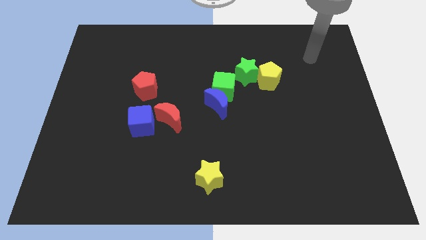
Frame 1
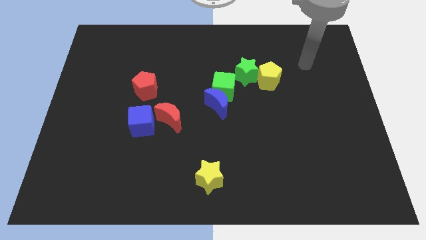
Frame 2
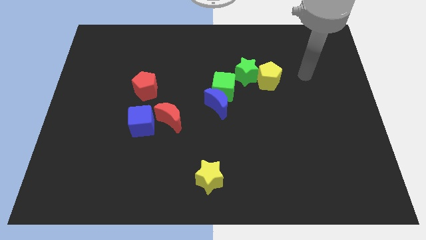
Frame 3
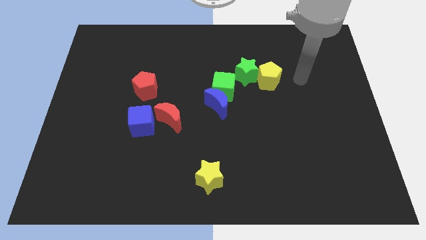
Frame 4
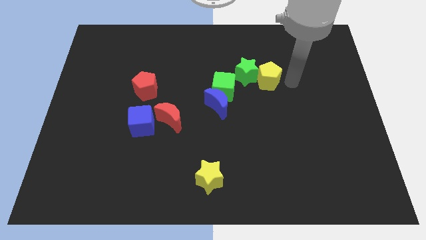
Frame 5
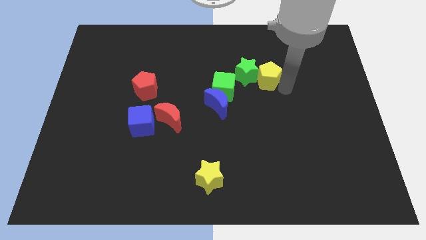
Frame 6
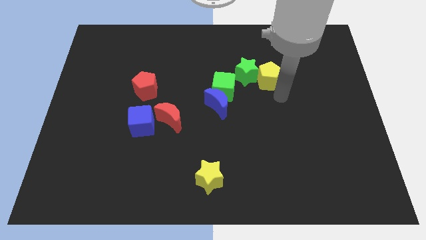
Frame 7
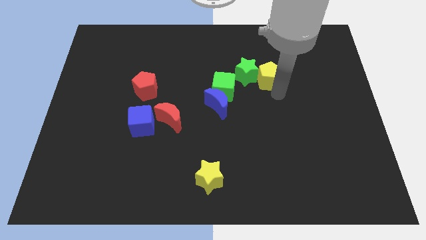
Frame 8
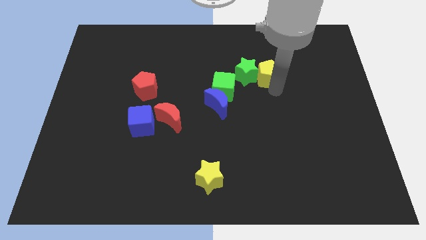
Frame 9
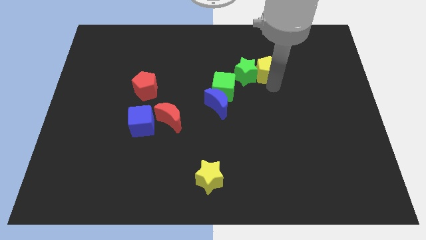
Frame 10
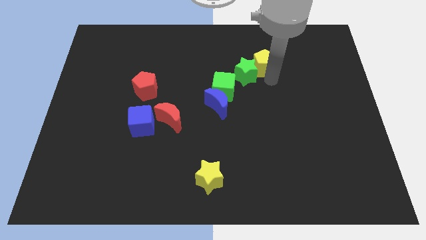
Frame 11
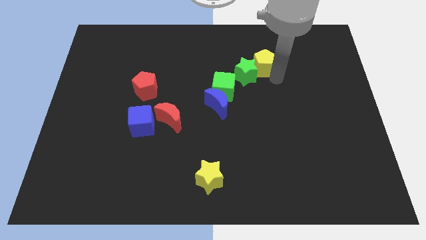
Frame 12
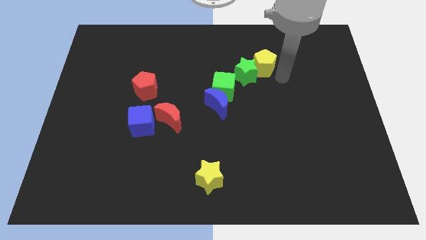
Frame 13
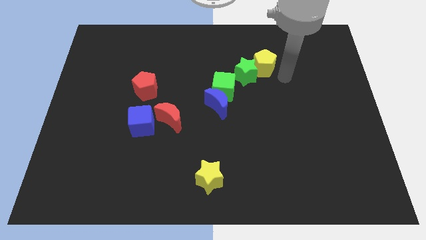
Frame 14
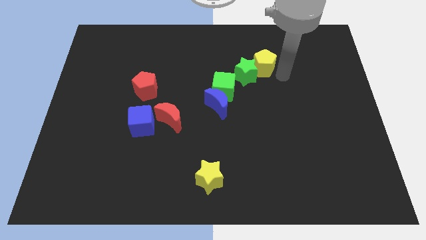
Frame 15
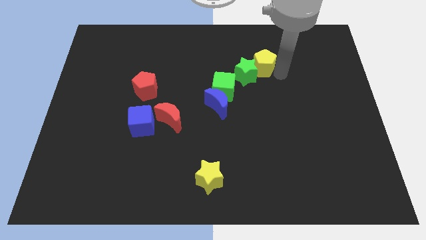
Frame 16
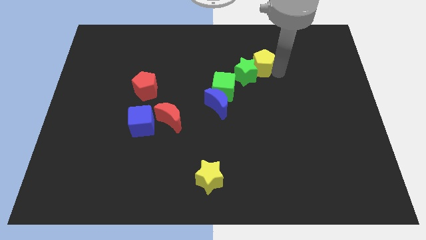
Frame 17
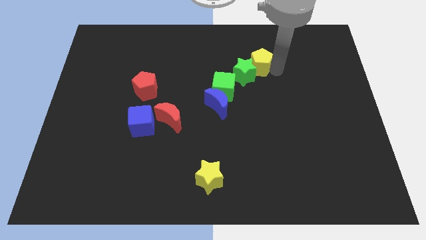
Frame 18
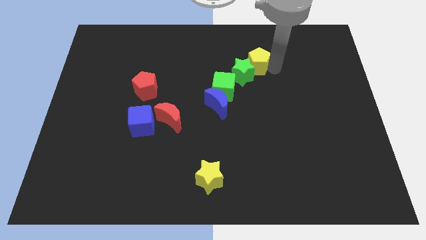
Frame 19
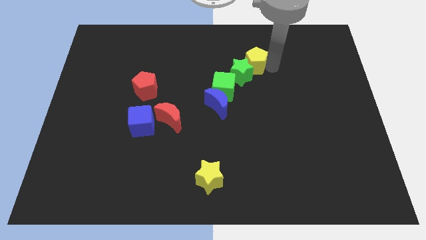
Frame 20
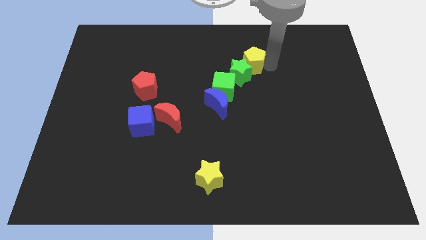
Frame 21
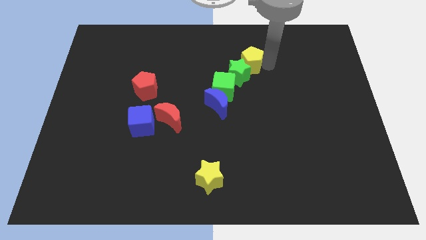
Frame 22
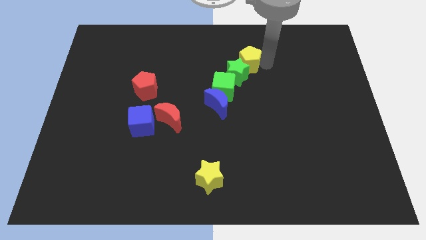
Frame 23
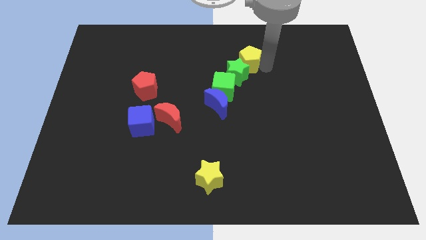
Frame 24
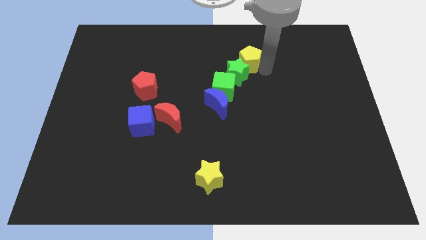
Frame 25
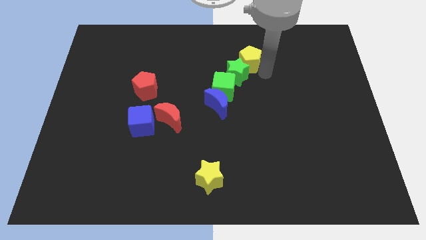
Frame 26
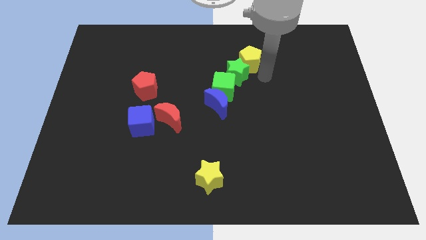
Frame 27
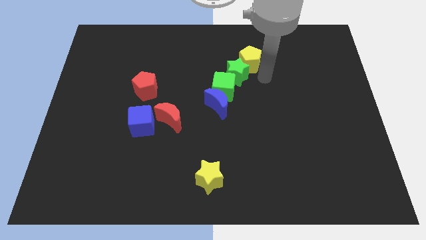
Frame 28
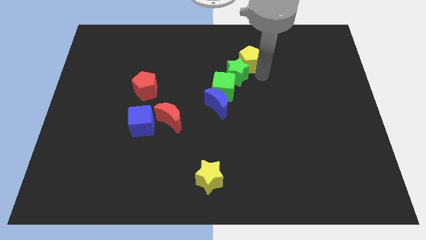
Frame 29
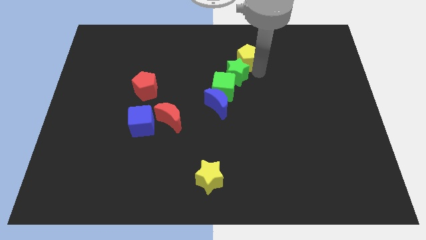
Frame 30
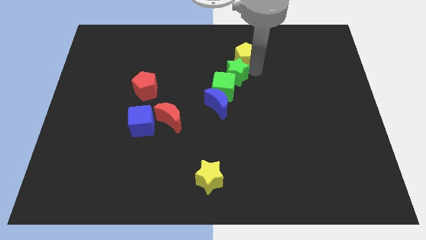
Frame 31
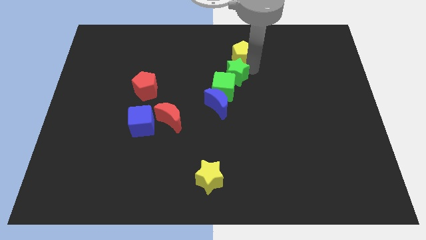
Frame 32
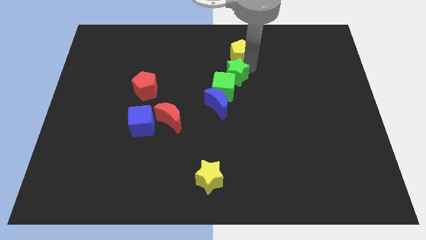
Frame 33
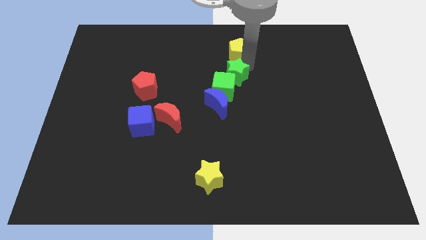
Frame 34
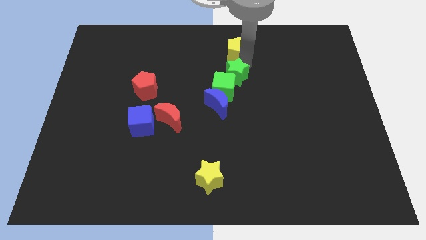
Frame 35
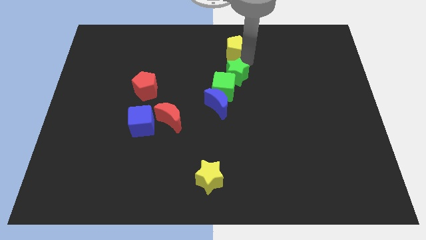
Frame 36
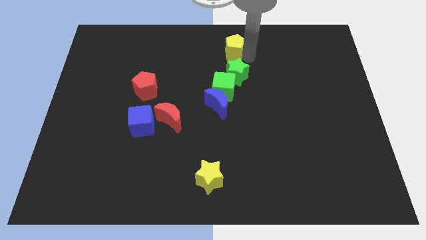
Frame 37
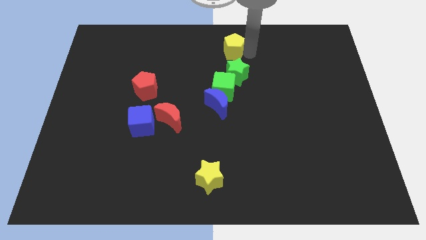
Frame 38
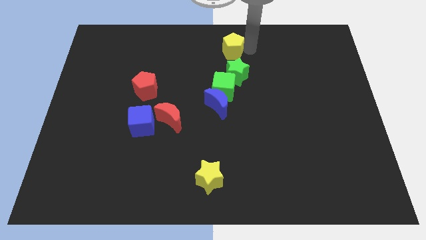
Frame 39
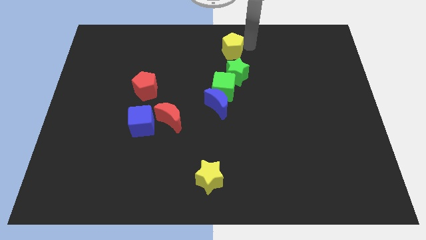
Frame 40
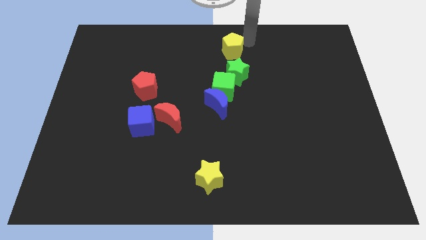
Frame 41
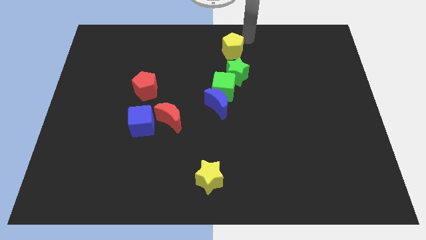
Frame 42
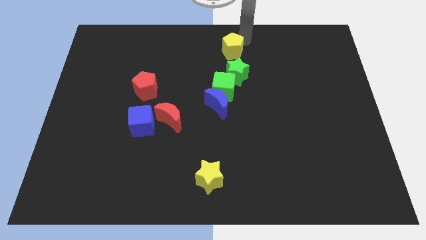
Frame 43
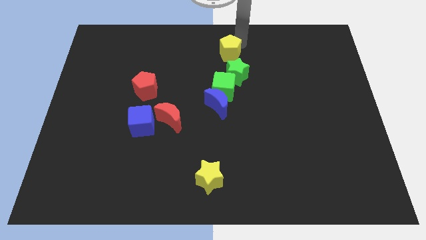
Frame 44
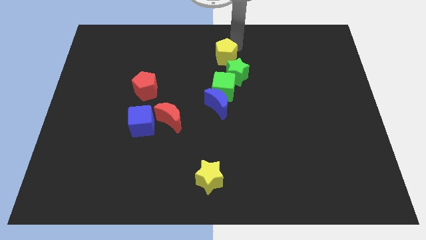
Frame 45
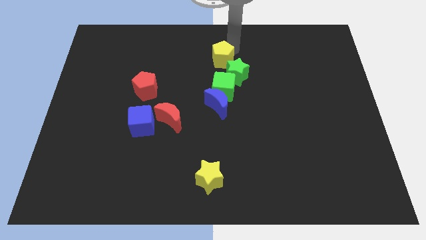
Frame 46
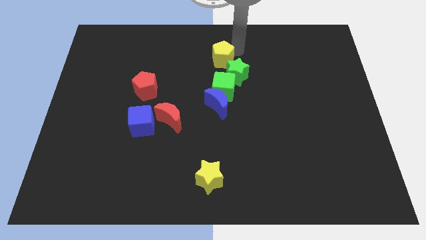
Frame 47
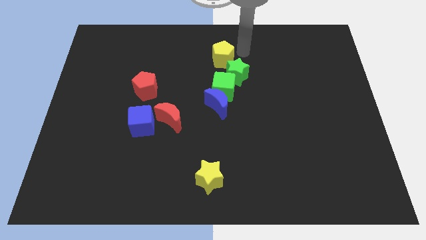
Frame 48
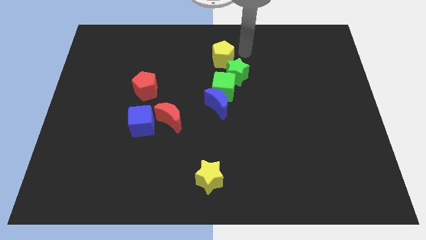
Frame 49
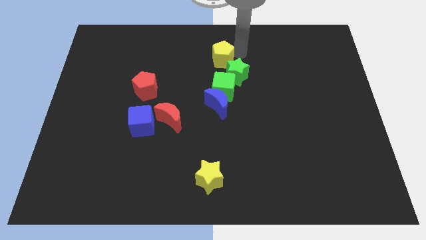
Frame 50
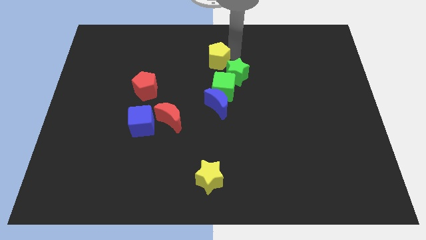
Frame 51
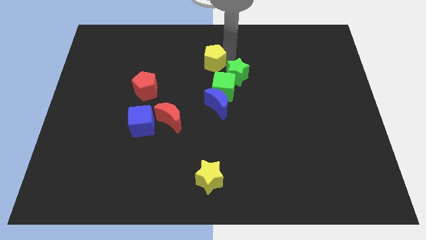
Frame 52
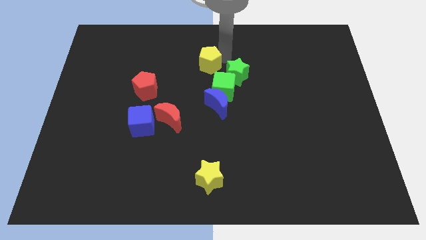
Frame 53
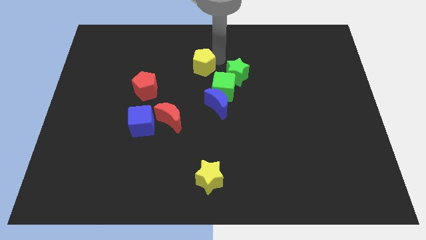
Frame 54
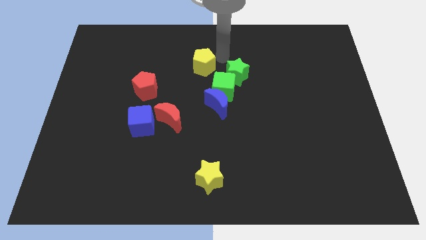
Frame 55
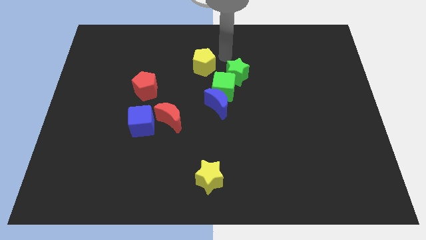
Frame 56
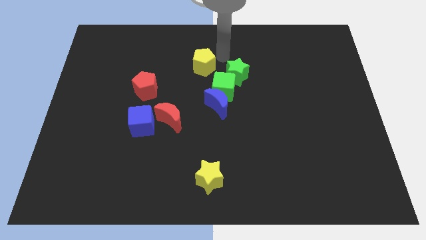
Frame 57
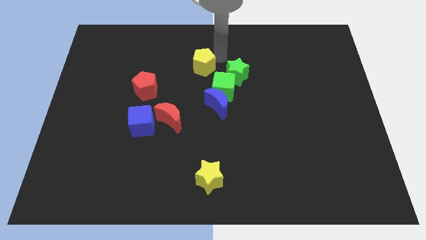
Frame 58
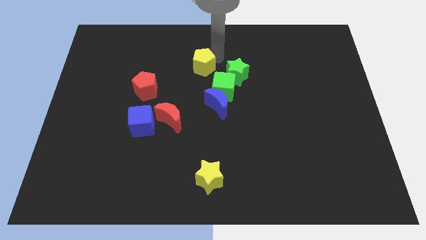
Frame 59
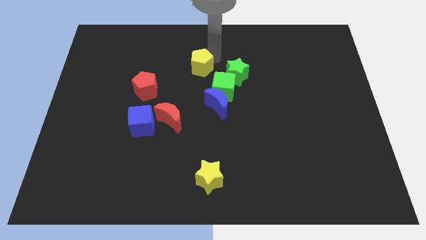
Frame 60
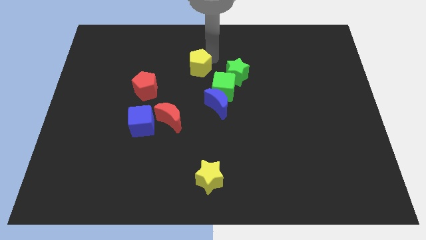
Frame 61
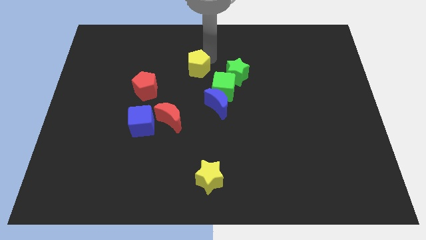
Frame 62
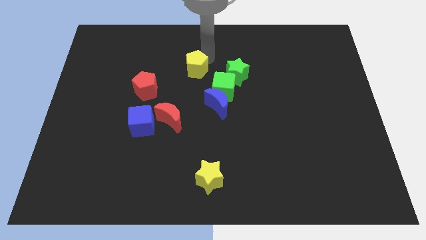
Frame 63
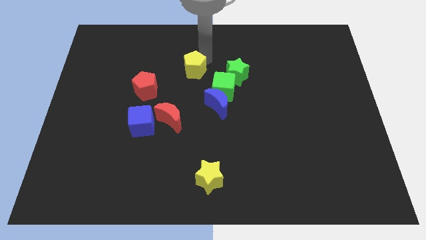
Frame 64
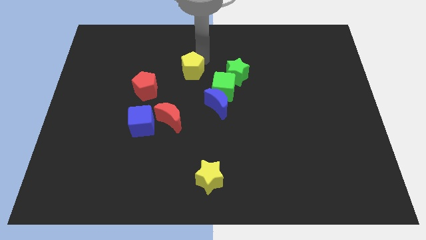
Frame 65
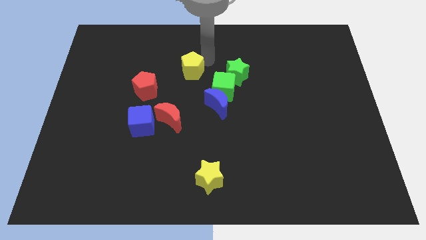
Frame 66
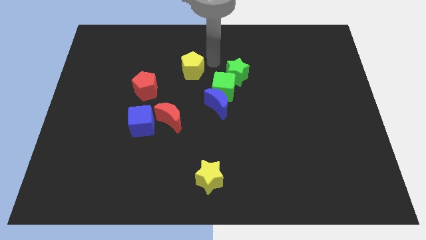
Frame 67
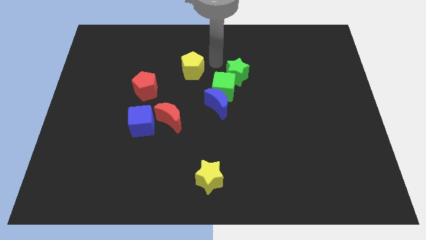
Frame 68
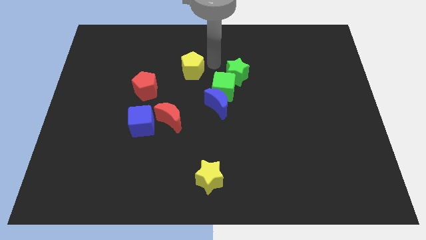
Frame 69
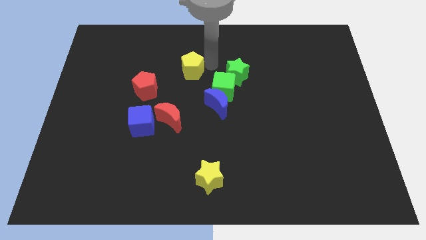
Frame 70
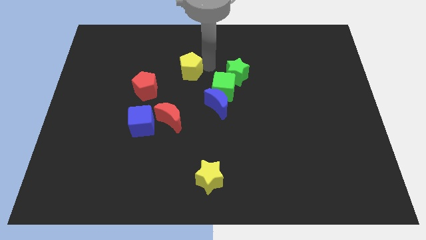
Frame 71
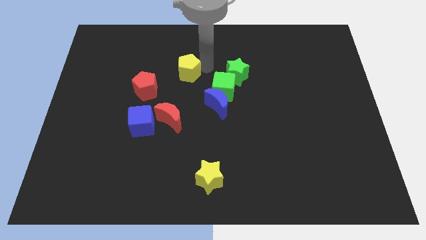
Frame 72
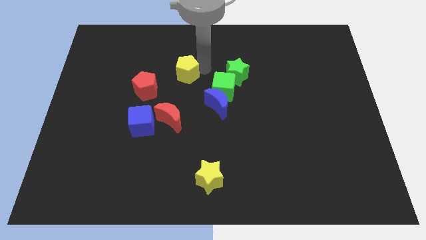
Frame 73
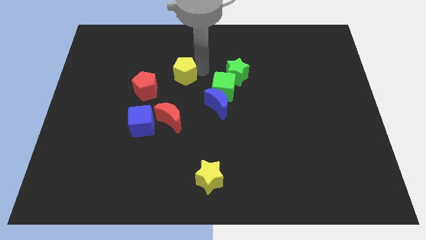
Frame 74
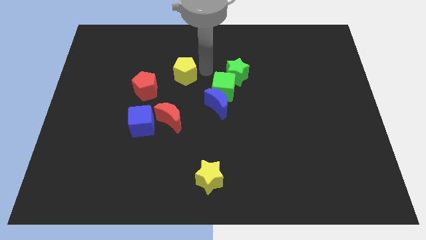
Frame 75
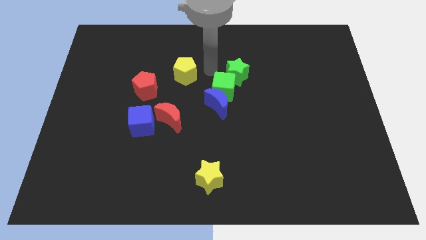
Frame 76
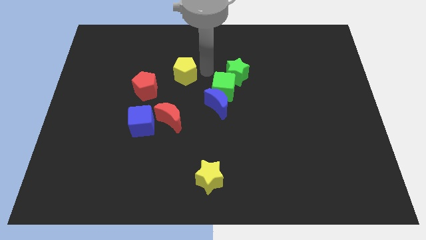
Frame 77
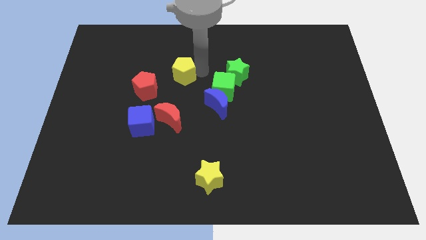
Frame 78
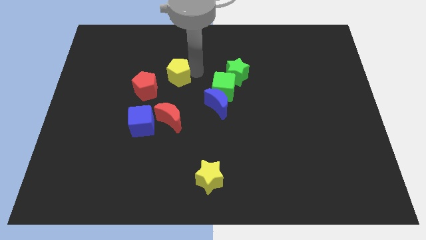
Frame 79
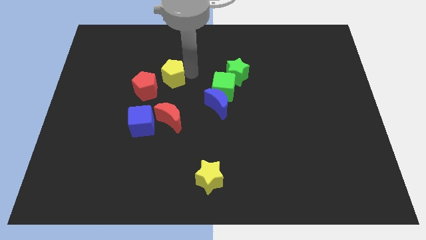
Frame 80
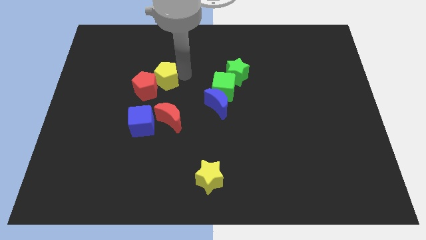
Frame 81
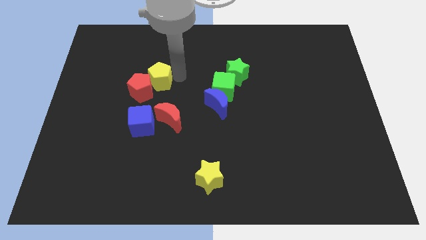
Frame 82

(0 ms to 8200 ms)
put the yellow pentagon to the top of the blue cube
